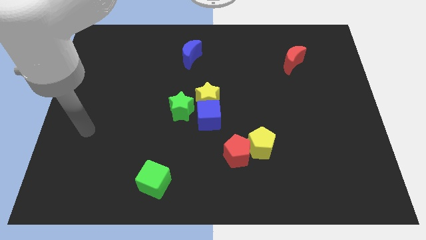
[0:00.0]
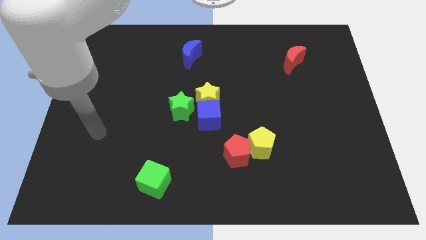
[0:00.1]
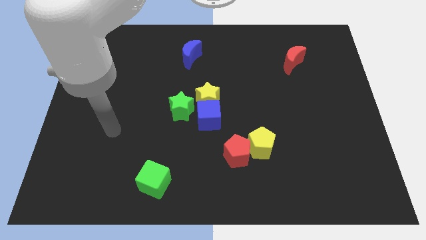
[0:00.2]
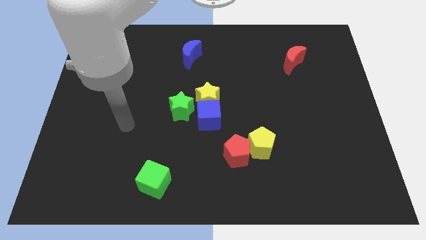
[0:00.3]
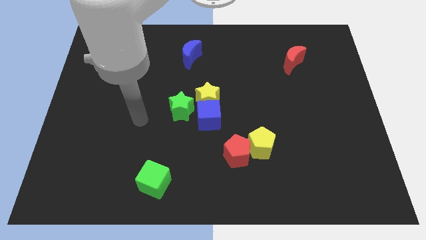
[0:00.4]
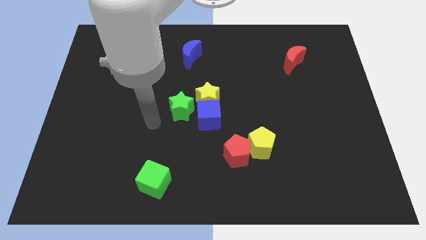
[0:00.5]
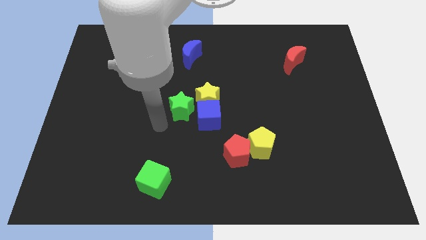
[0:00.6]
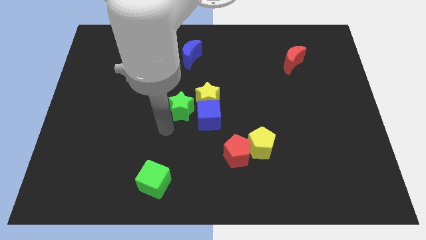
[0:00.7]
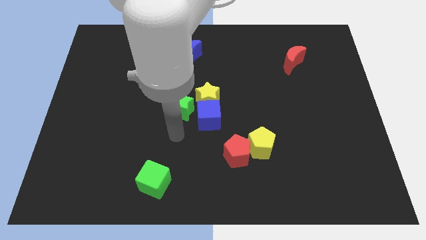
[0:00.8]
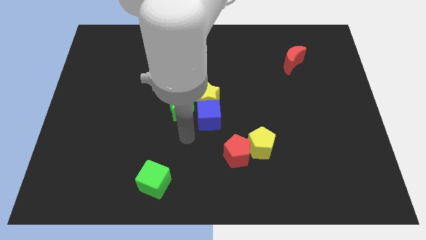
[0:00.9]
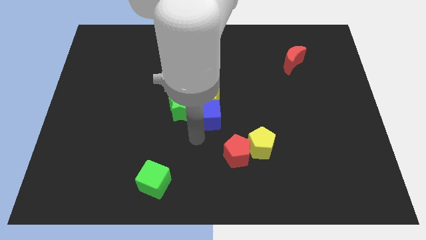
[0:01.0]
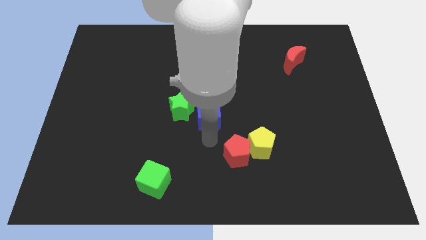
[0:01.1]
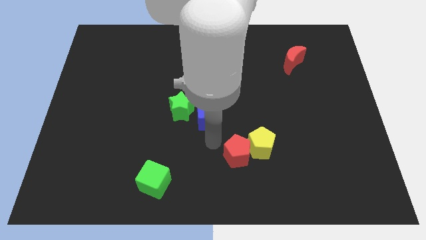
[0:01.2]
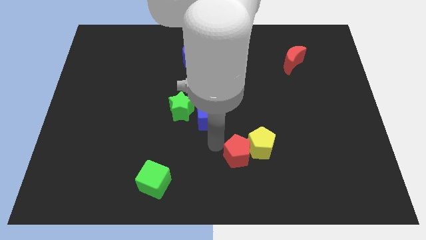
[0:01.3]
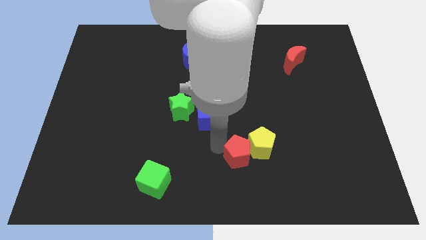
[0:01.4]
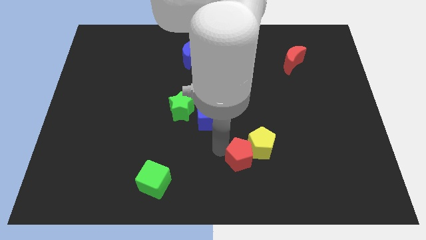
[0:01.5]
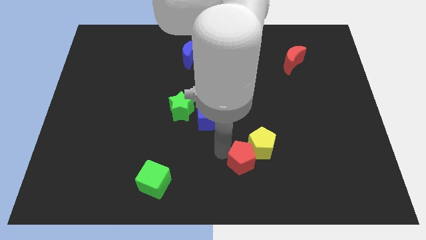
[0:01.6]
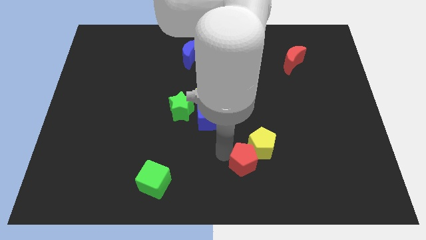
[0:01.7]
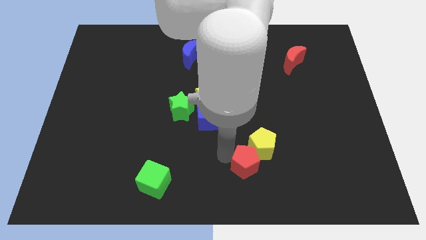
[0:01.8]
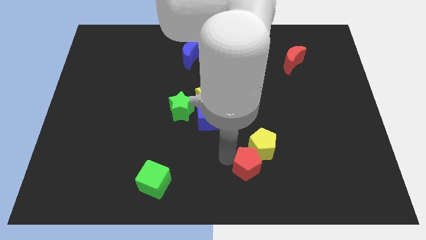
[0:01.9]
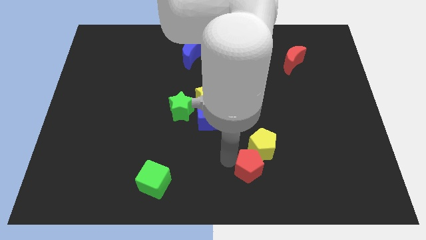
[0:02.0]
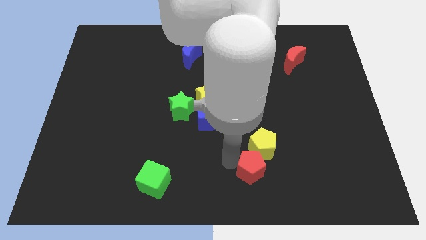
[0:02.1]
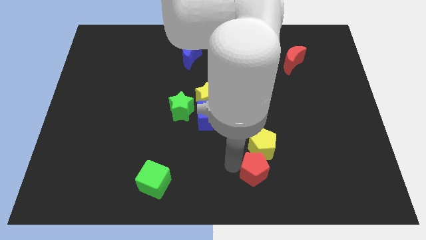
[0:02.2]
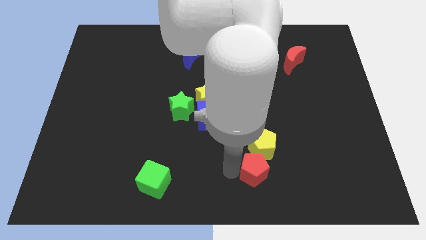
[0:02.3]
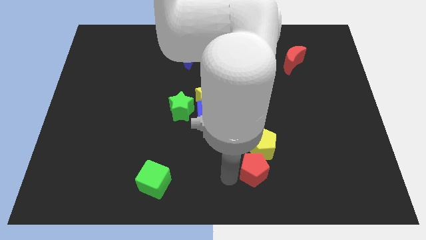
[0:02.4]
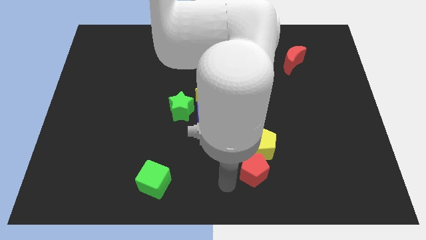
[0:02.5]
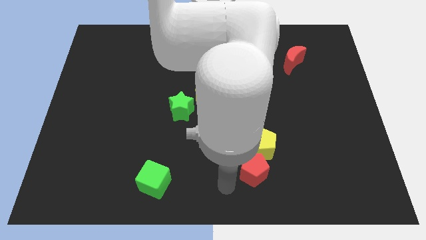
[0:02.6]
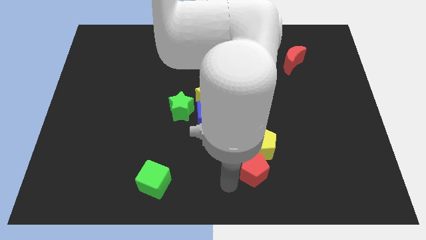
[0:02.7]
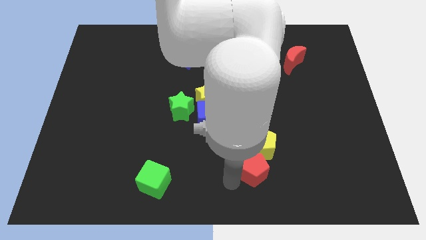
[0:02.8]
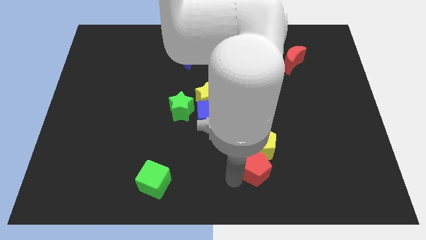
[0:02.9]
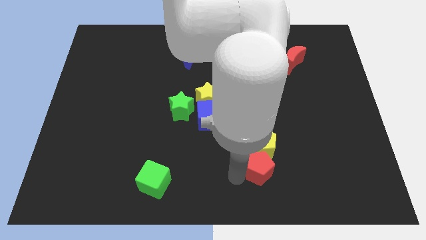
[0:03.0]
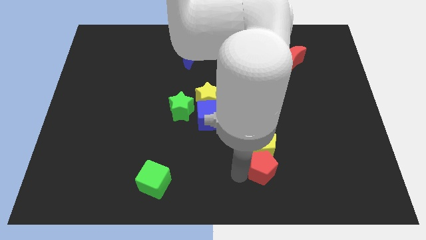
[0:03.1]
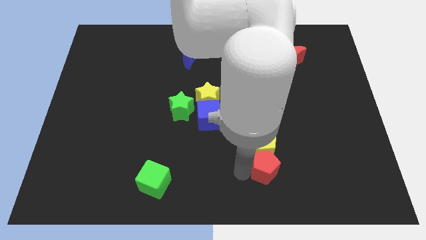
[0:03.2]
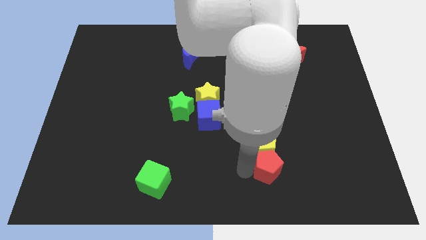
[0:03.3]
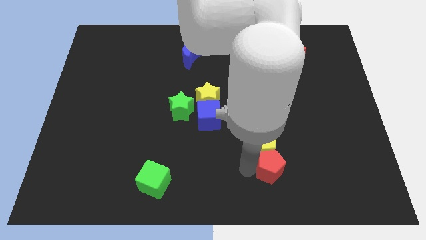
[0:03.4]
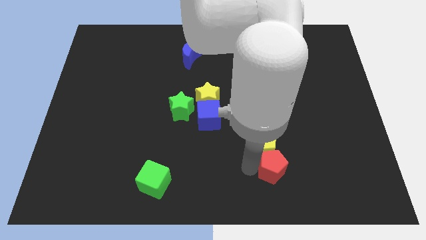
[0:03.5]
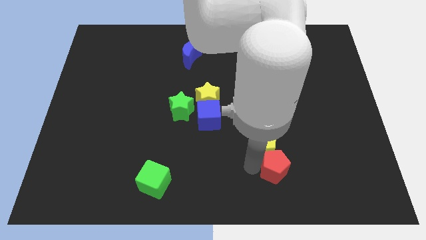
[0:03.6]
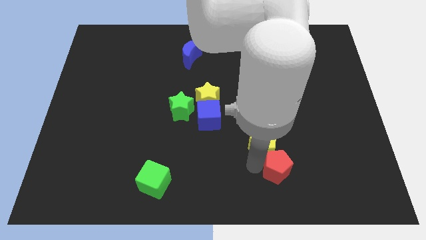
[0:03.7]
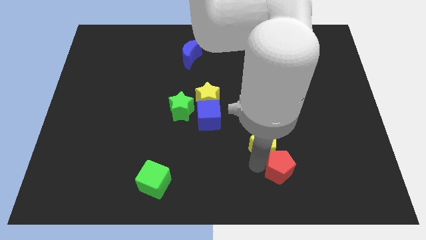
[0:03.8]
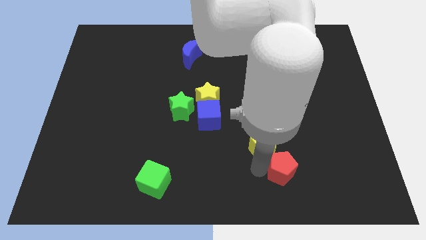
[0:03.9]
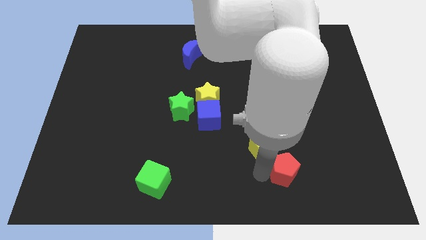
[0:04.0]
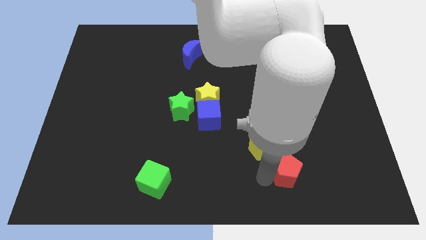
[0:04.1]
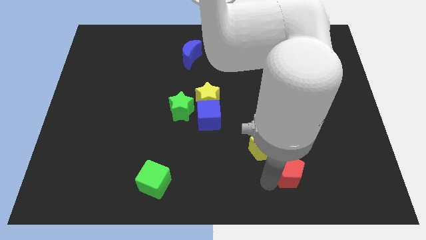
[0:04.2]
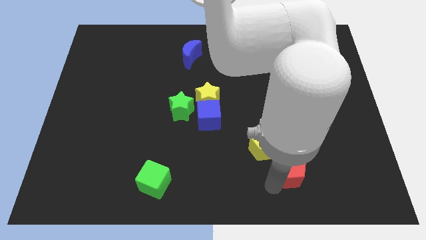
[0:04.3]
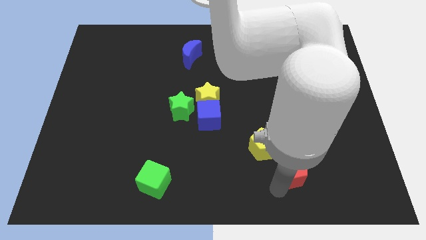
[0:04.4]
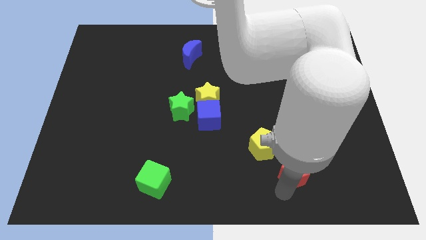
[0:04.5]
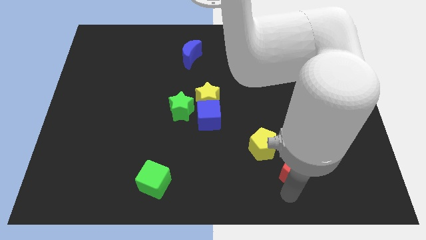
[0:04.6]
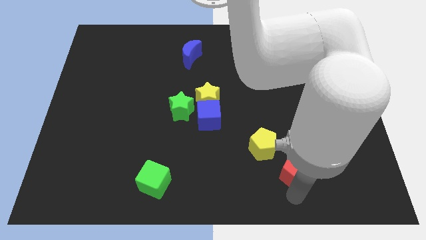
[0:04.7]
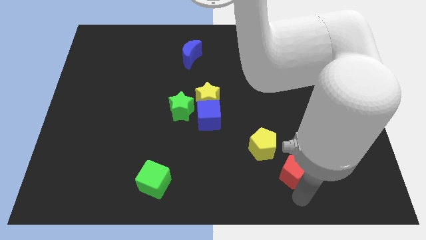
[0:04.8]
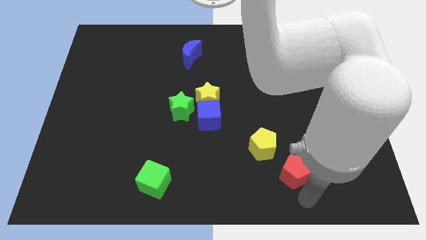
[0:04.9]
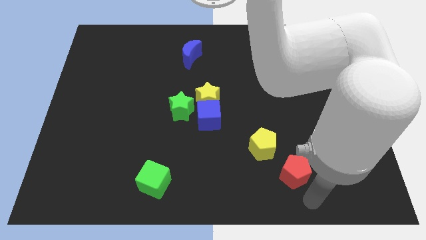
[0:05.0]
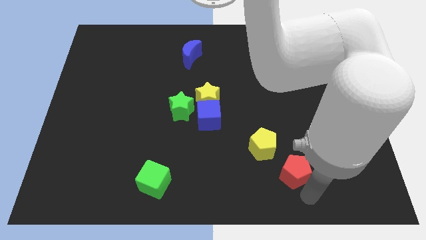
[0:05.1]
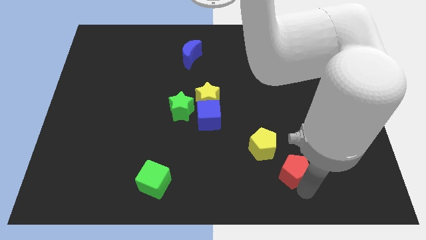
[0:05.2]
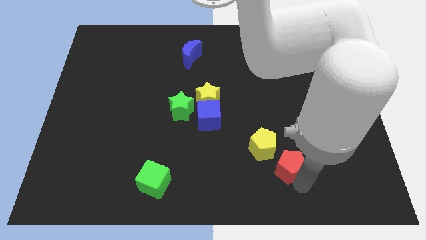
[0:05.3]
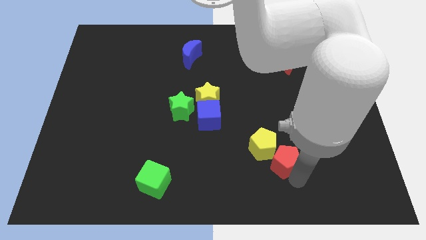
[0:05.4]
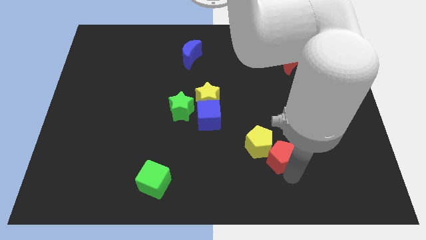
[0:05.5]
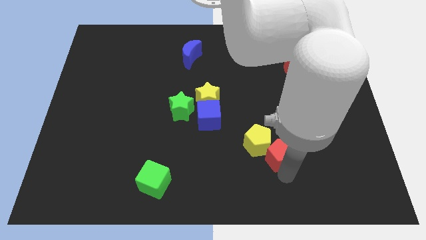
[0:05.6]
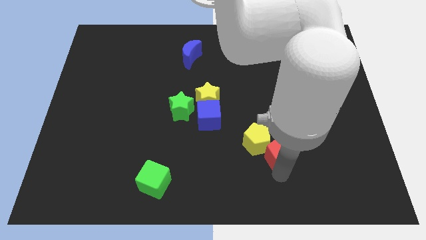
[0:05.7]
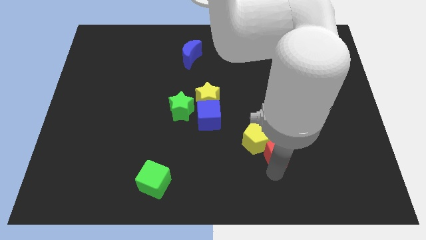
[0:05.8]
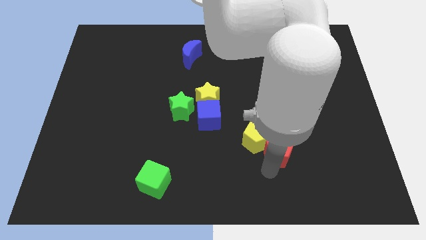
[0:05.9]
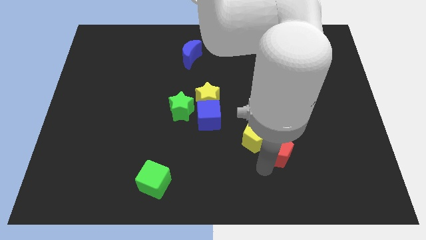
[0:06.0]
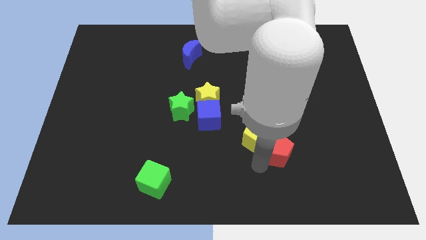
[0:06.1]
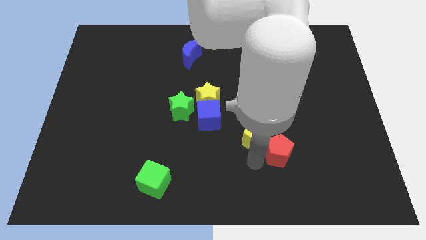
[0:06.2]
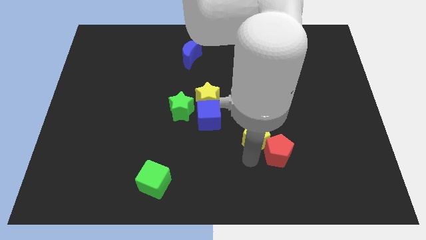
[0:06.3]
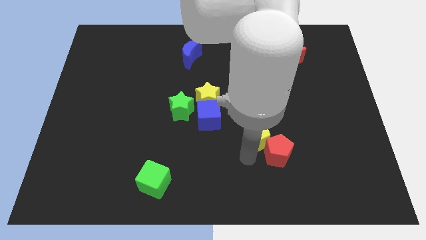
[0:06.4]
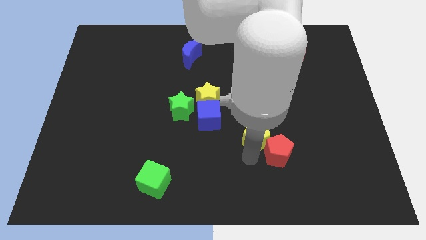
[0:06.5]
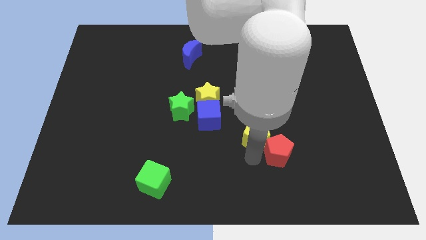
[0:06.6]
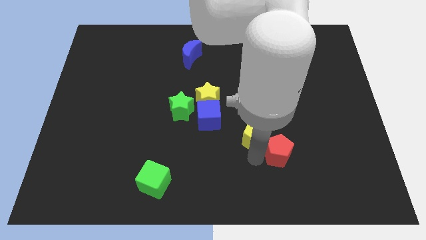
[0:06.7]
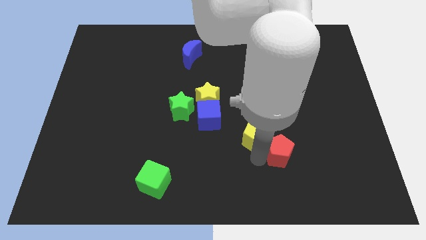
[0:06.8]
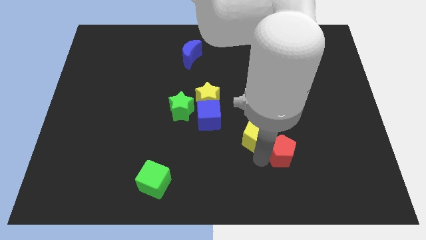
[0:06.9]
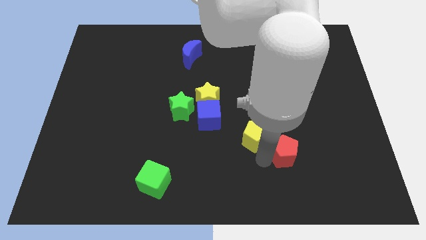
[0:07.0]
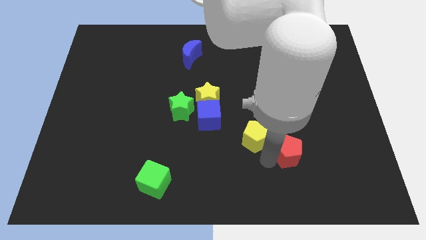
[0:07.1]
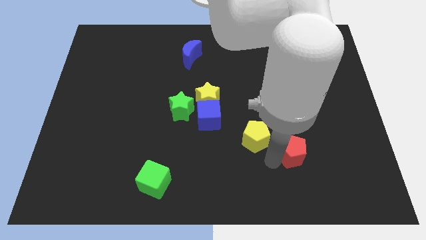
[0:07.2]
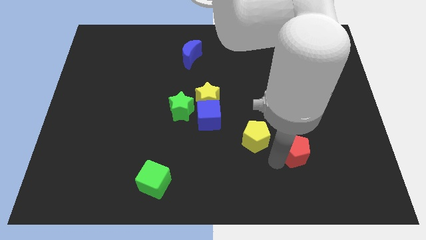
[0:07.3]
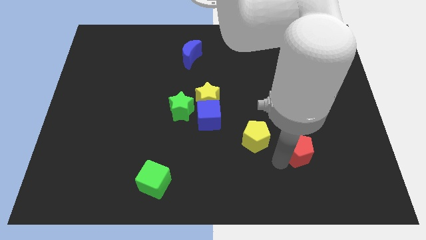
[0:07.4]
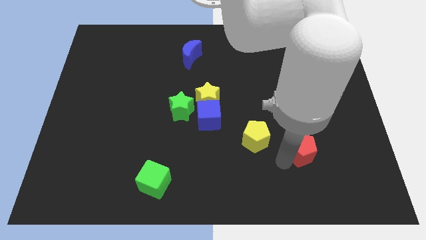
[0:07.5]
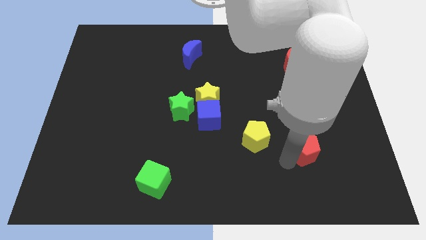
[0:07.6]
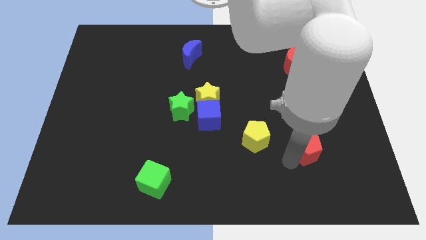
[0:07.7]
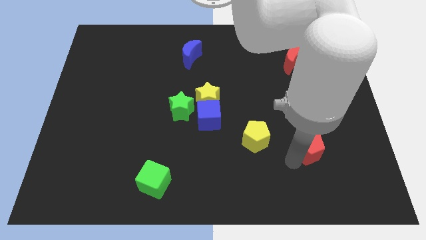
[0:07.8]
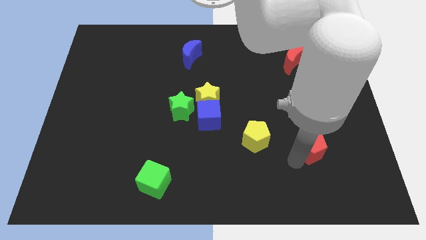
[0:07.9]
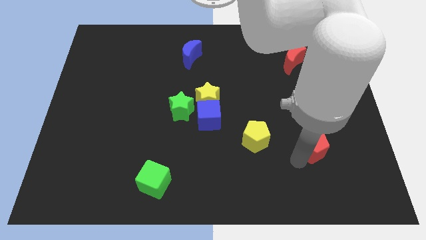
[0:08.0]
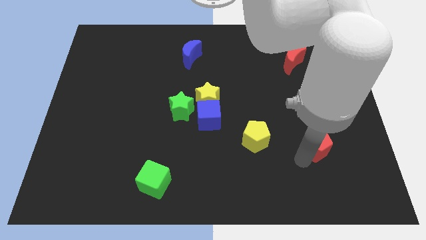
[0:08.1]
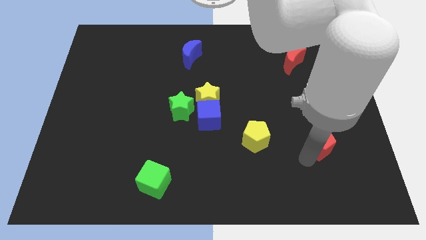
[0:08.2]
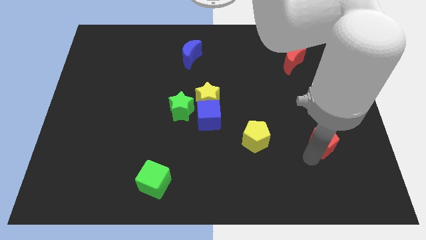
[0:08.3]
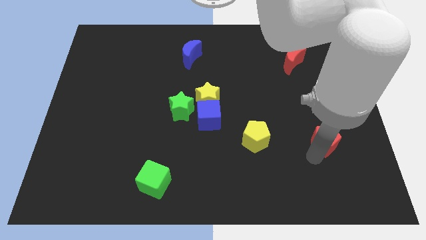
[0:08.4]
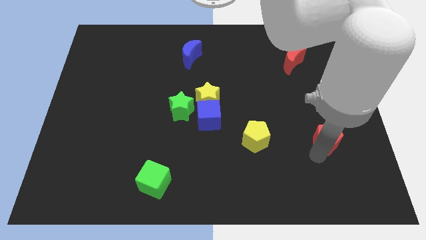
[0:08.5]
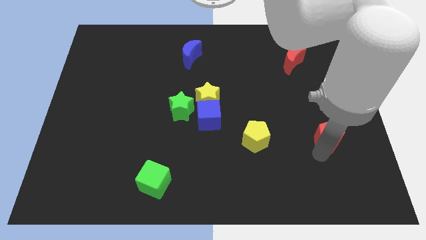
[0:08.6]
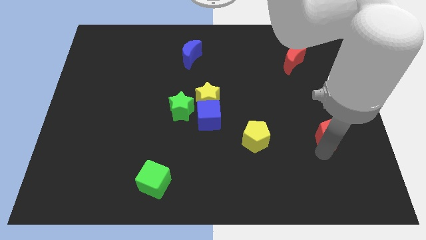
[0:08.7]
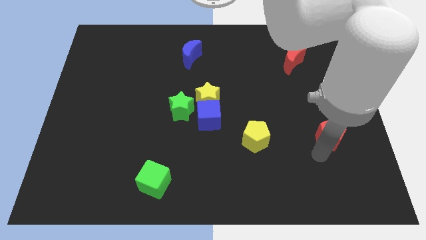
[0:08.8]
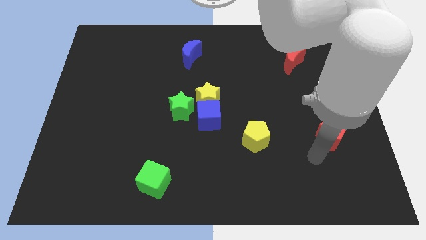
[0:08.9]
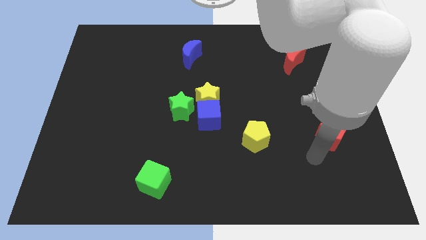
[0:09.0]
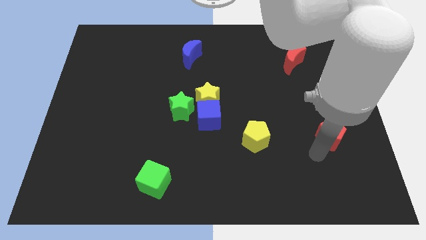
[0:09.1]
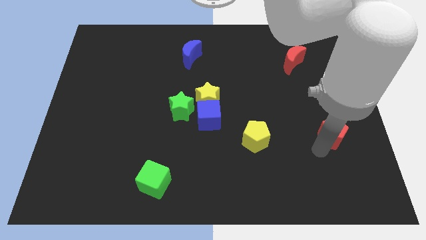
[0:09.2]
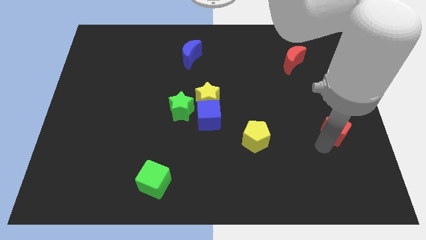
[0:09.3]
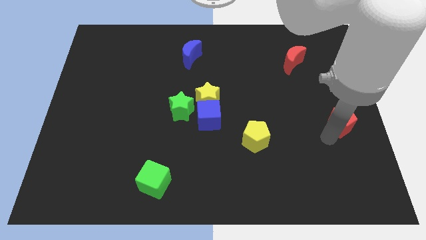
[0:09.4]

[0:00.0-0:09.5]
push the red pentagon to the center right
